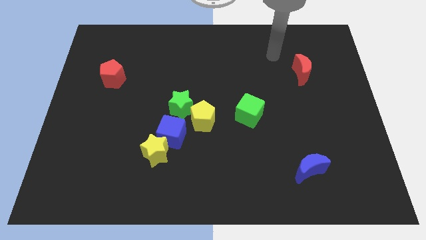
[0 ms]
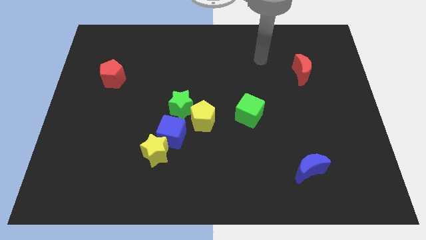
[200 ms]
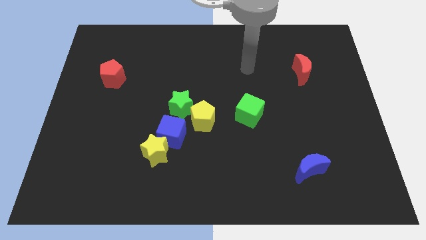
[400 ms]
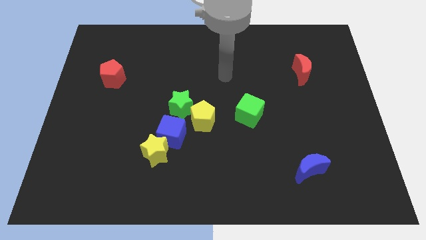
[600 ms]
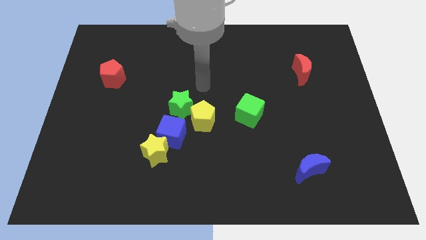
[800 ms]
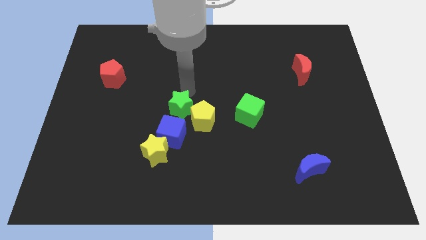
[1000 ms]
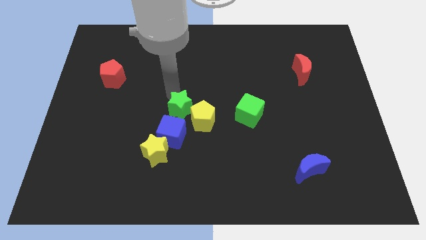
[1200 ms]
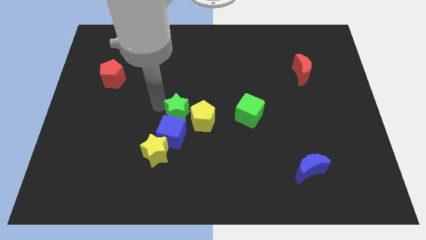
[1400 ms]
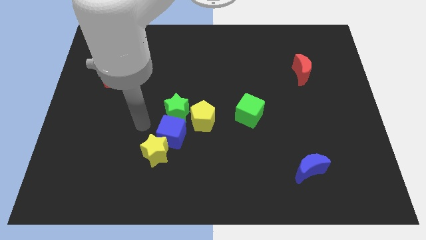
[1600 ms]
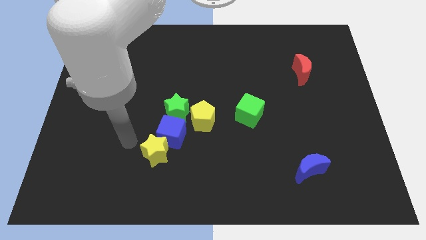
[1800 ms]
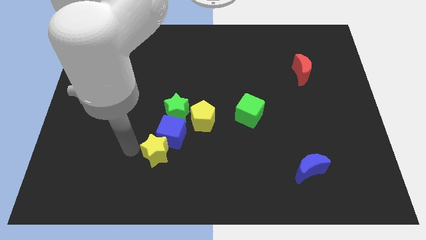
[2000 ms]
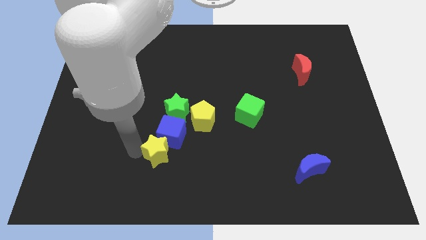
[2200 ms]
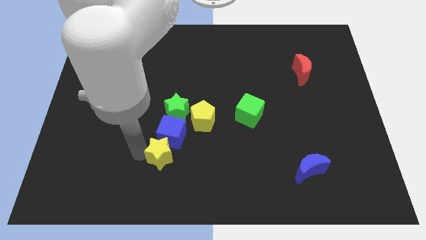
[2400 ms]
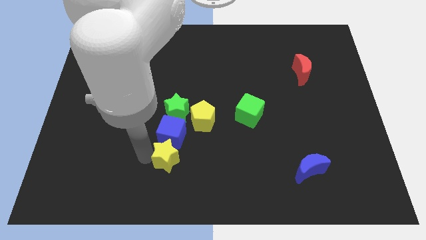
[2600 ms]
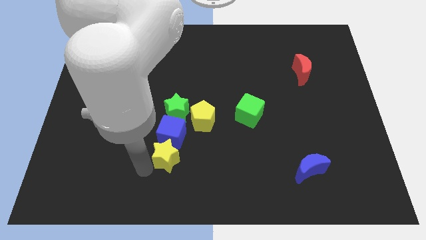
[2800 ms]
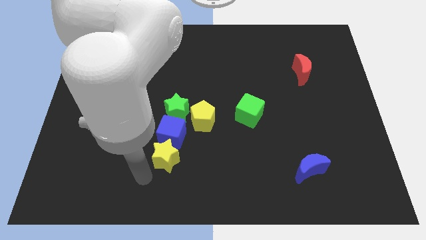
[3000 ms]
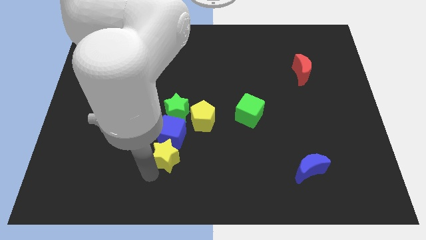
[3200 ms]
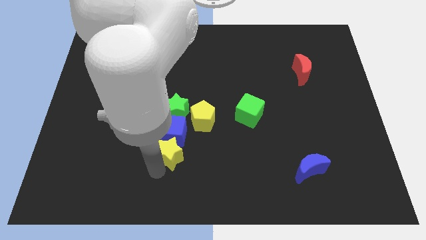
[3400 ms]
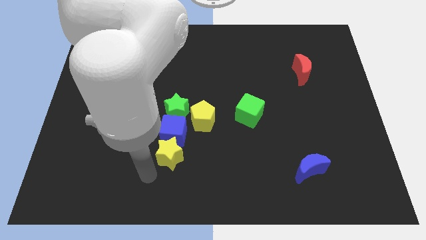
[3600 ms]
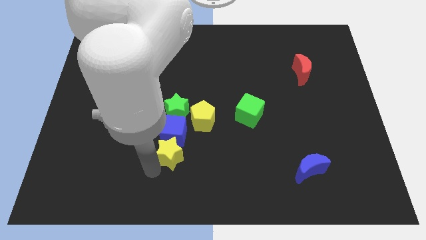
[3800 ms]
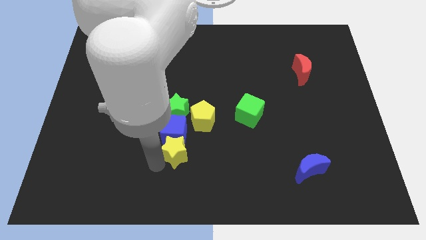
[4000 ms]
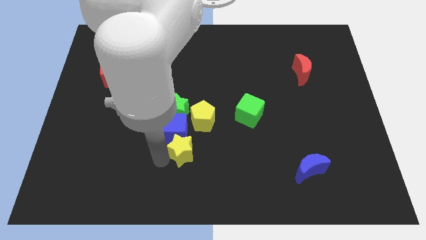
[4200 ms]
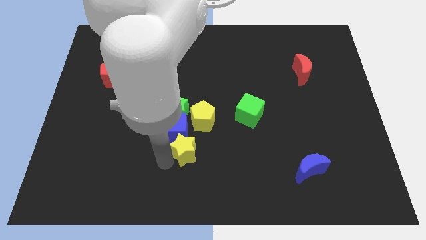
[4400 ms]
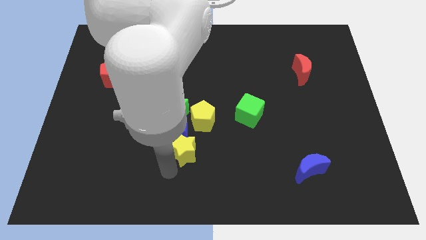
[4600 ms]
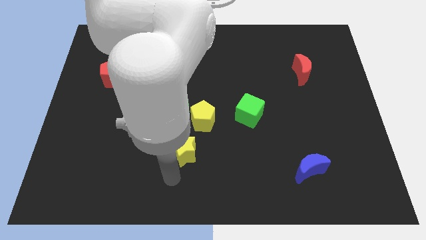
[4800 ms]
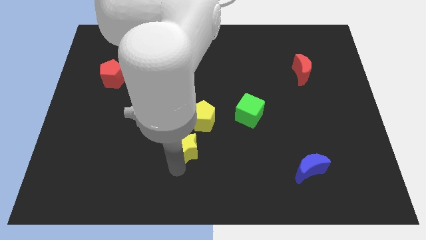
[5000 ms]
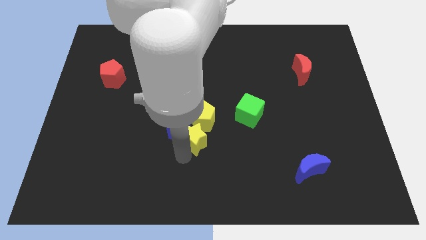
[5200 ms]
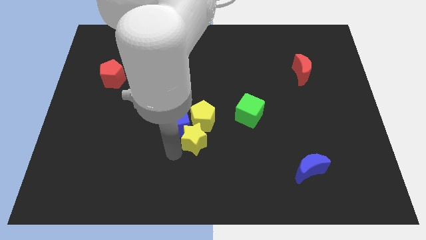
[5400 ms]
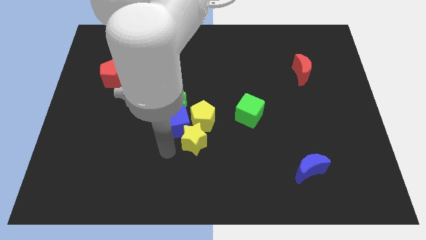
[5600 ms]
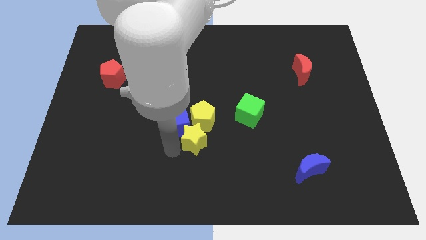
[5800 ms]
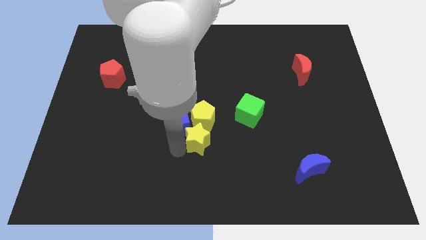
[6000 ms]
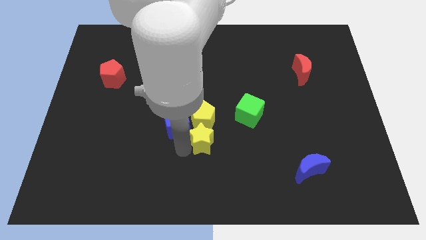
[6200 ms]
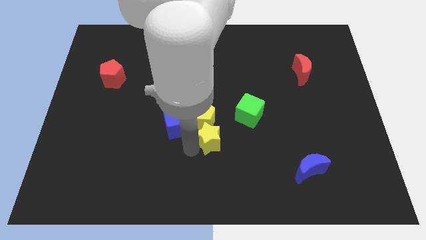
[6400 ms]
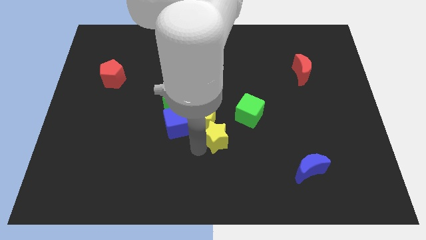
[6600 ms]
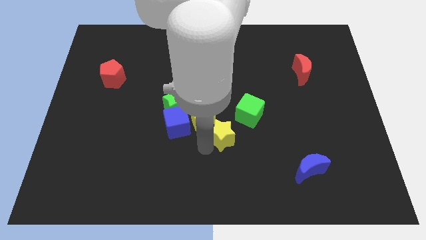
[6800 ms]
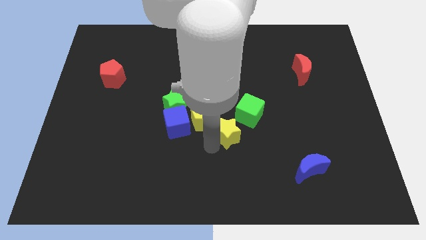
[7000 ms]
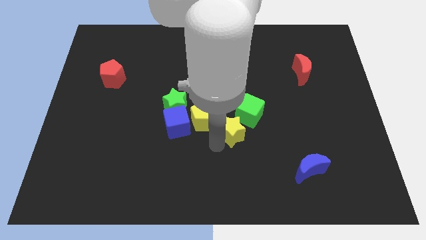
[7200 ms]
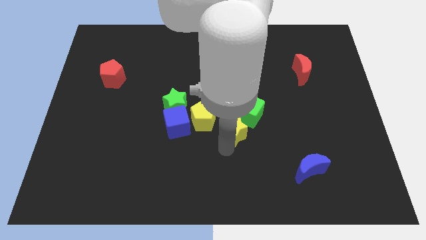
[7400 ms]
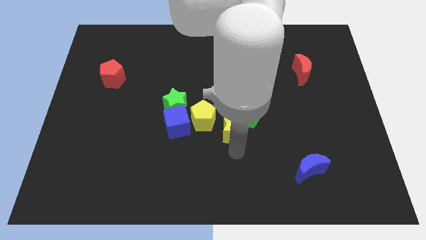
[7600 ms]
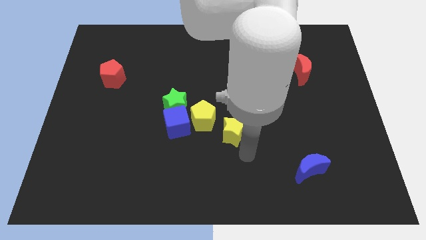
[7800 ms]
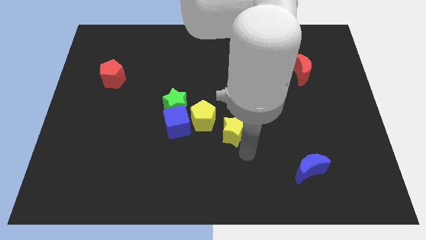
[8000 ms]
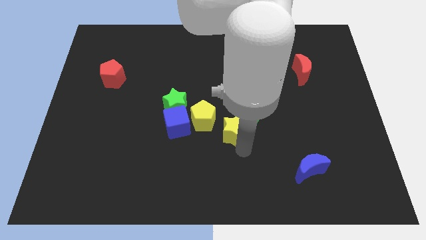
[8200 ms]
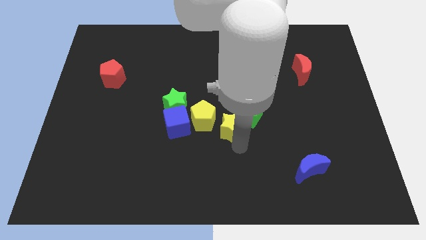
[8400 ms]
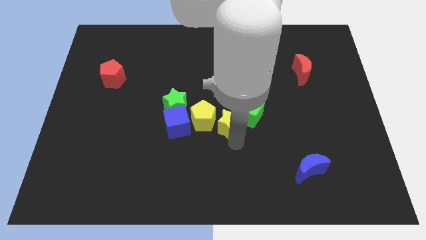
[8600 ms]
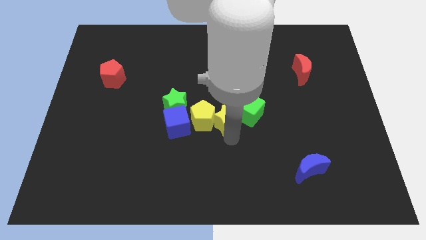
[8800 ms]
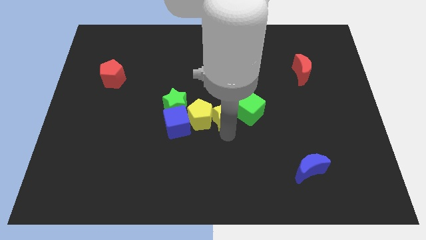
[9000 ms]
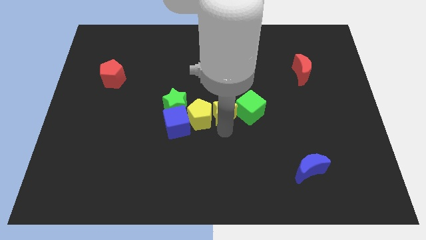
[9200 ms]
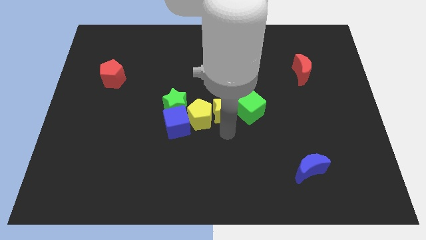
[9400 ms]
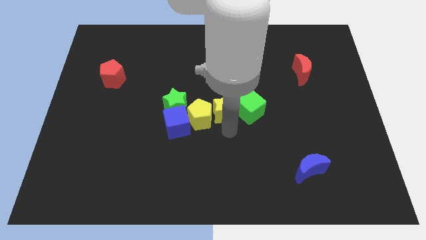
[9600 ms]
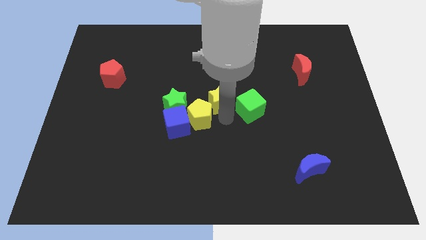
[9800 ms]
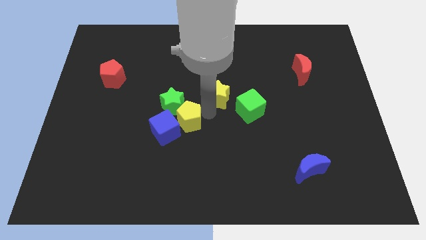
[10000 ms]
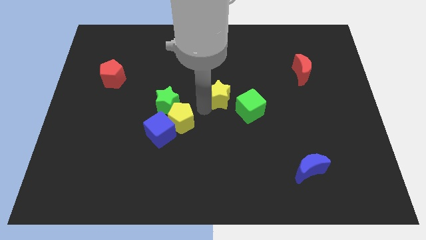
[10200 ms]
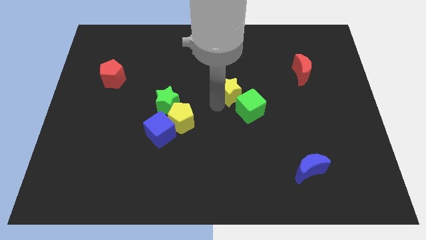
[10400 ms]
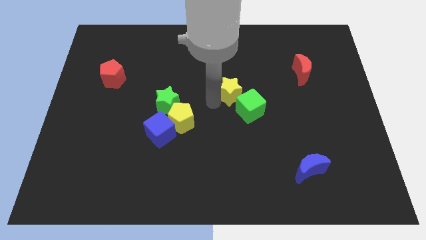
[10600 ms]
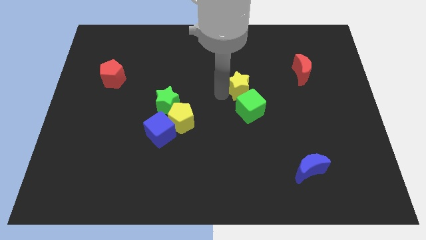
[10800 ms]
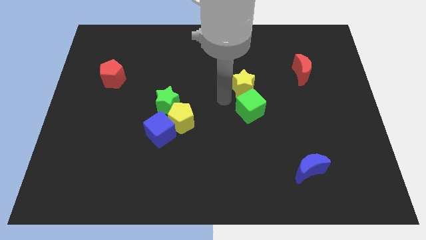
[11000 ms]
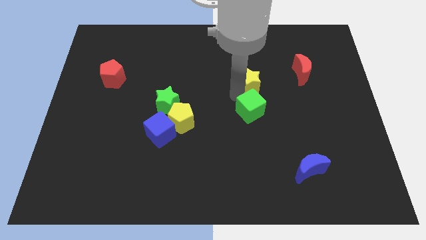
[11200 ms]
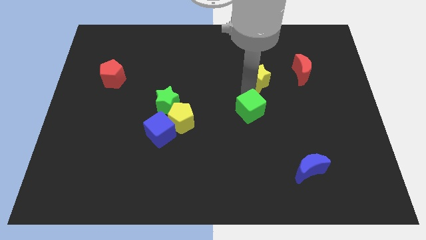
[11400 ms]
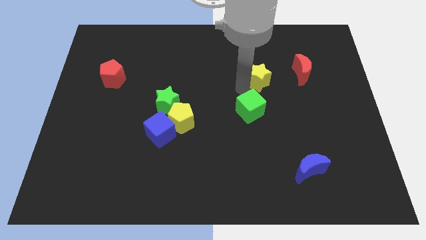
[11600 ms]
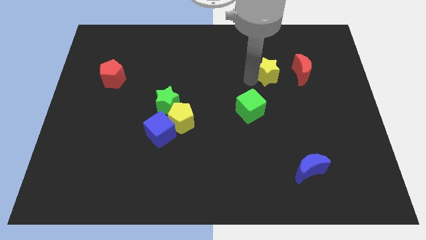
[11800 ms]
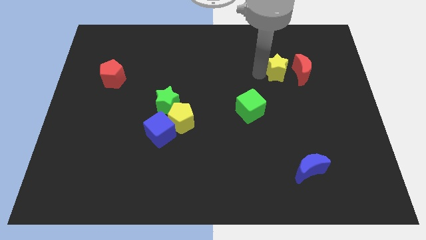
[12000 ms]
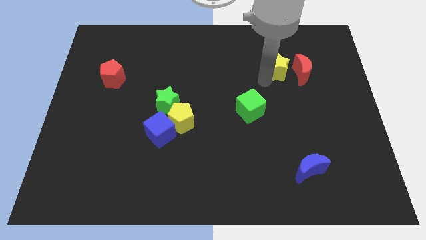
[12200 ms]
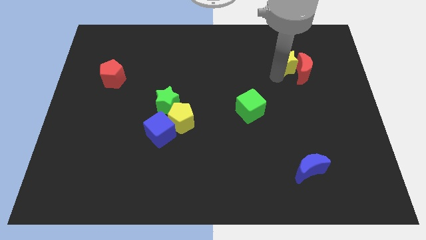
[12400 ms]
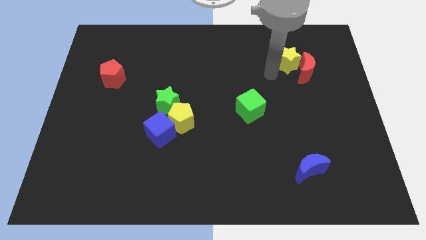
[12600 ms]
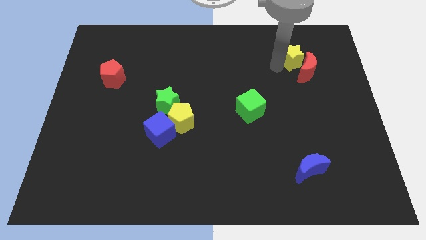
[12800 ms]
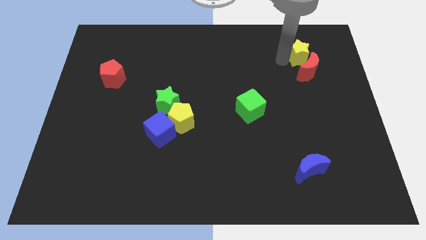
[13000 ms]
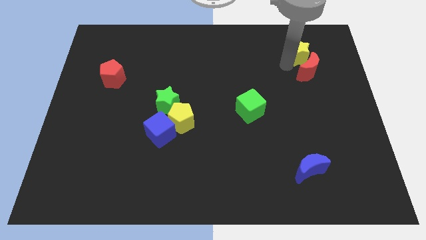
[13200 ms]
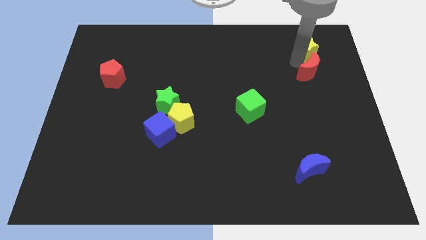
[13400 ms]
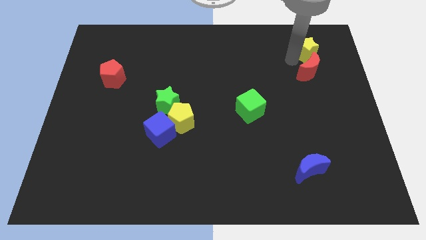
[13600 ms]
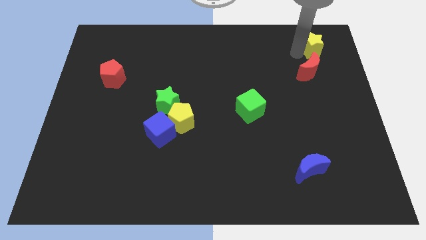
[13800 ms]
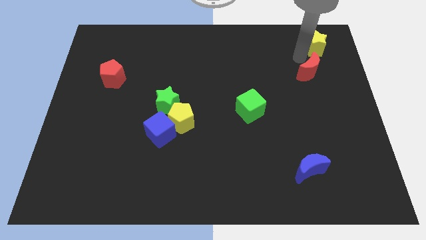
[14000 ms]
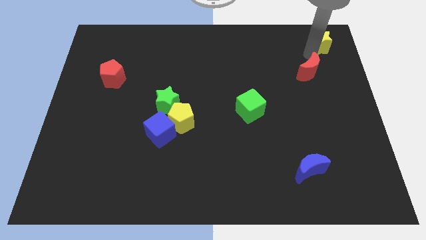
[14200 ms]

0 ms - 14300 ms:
move the yellow star to the top right of the board
